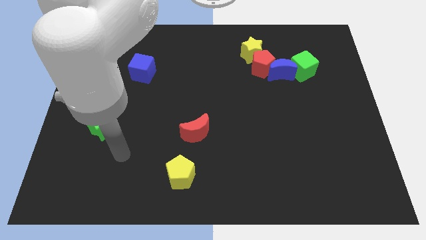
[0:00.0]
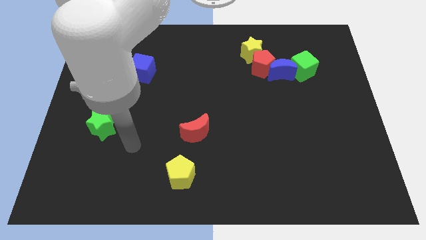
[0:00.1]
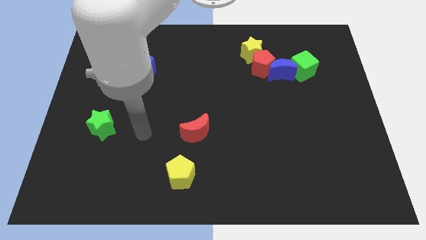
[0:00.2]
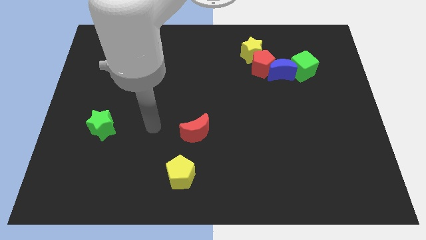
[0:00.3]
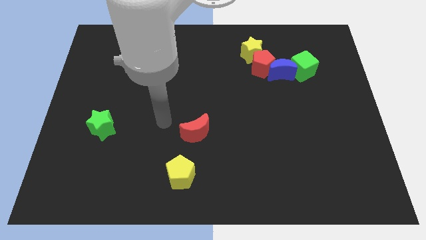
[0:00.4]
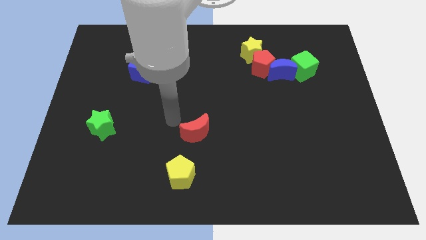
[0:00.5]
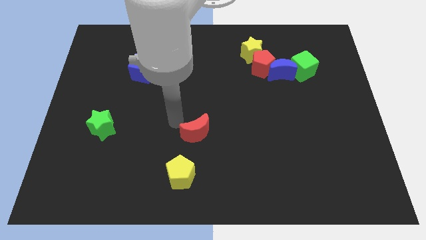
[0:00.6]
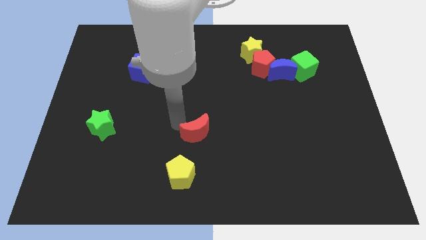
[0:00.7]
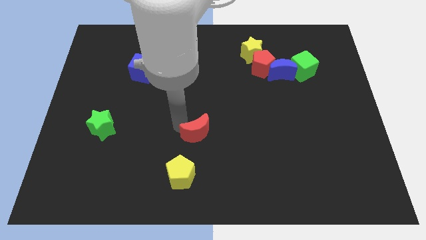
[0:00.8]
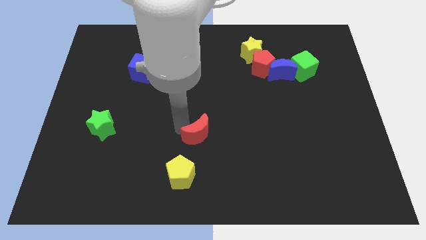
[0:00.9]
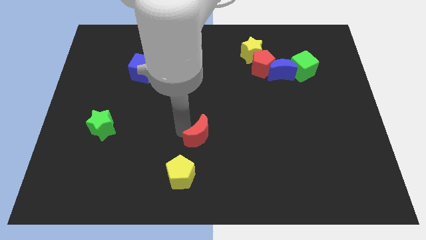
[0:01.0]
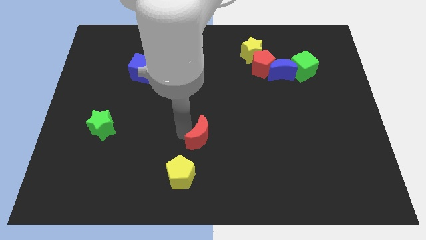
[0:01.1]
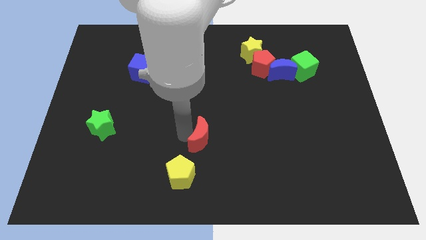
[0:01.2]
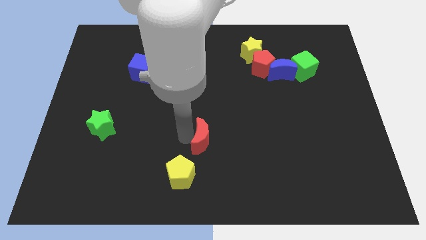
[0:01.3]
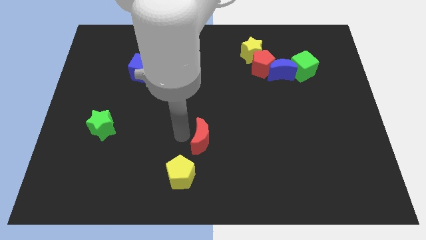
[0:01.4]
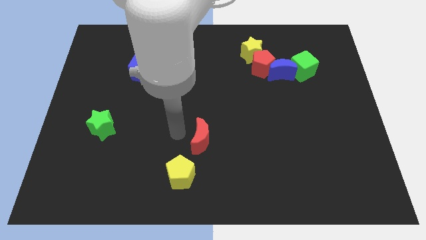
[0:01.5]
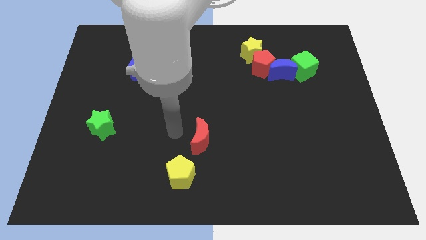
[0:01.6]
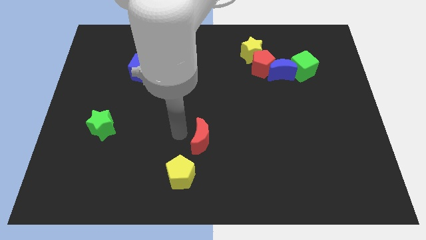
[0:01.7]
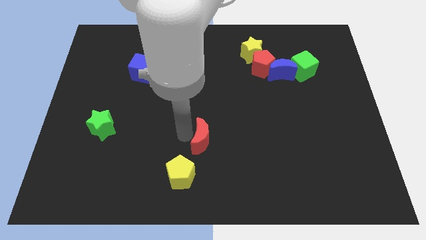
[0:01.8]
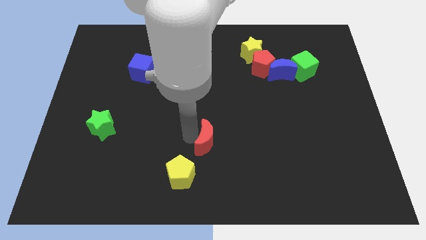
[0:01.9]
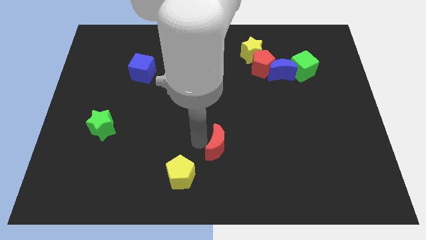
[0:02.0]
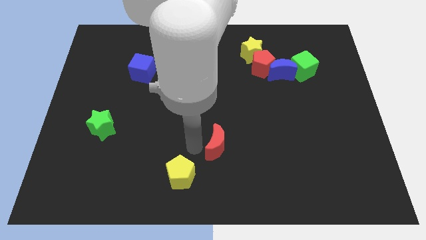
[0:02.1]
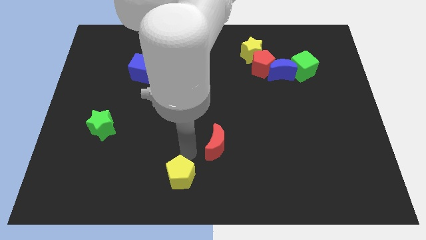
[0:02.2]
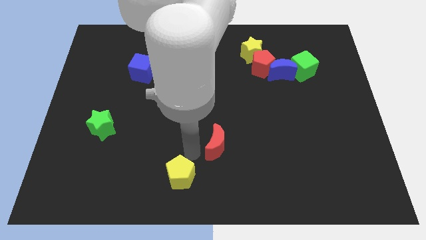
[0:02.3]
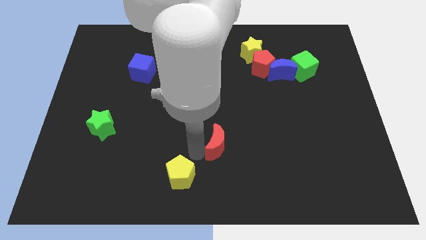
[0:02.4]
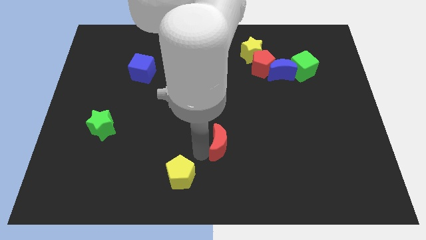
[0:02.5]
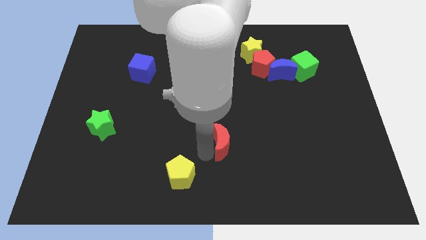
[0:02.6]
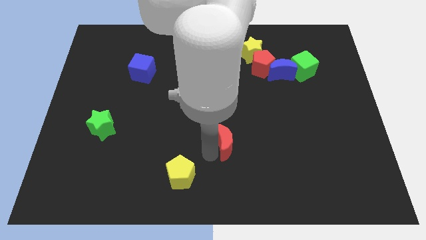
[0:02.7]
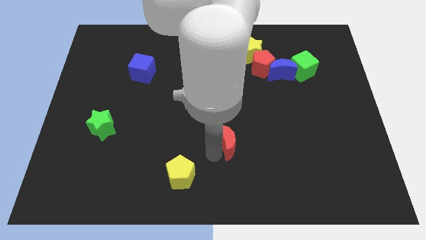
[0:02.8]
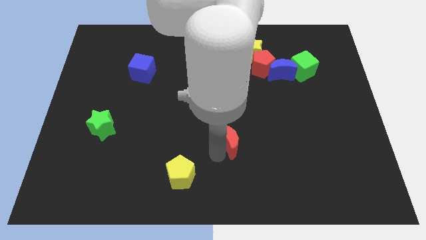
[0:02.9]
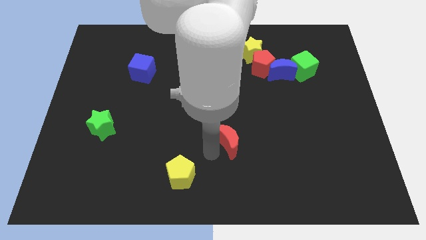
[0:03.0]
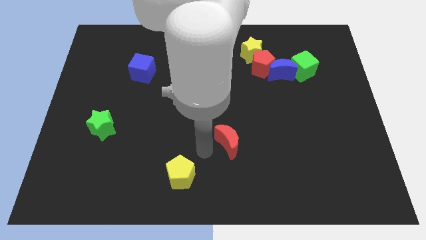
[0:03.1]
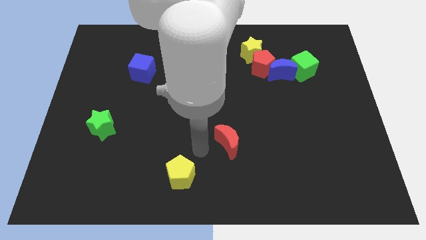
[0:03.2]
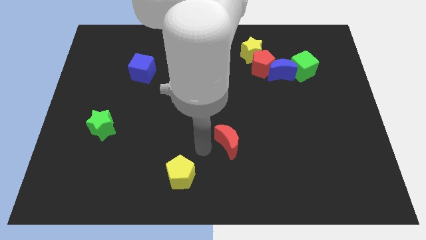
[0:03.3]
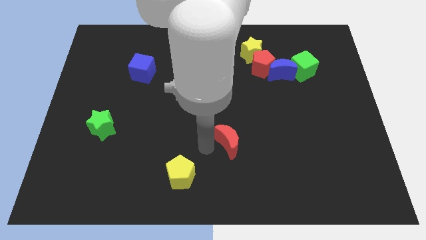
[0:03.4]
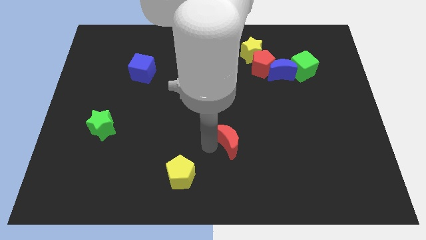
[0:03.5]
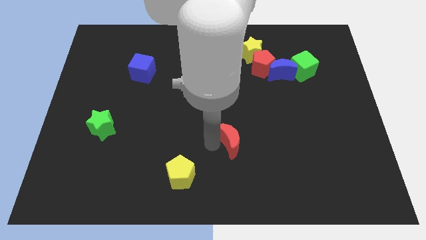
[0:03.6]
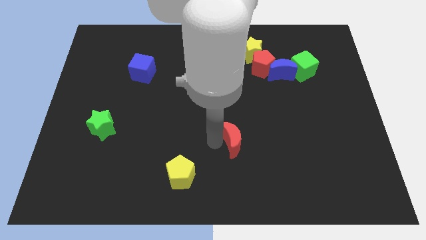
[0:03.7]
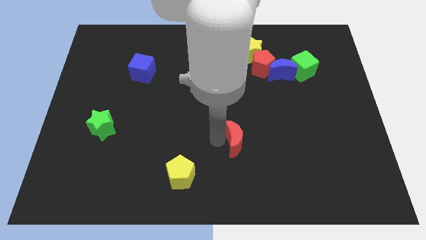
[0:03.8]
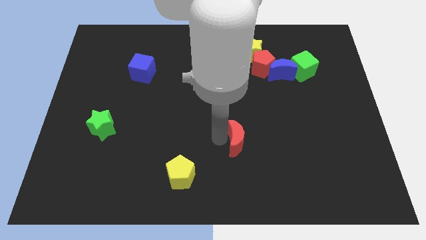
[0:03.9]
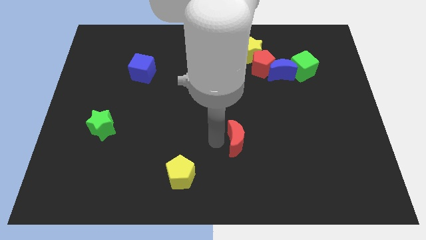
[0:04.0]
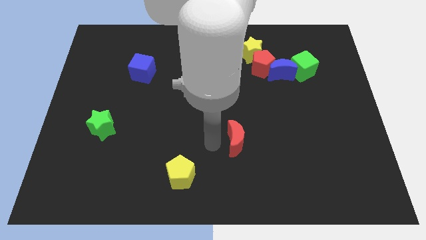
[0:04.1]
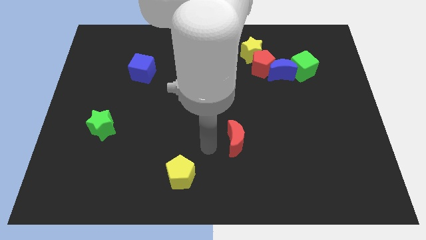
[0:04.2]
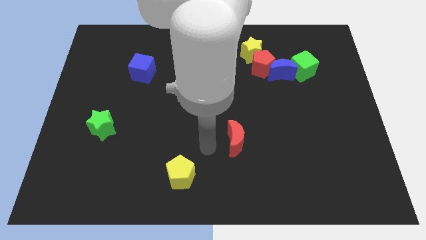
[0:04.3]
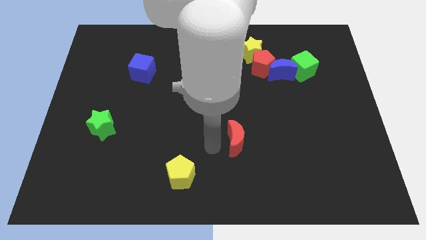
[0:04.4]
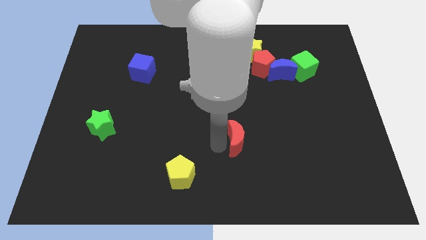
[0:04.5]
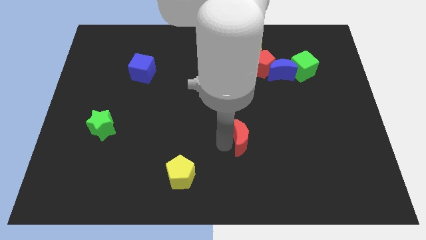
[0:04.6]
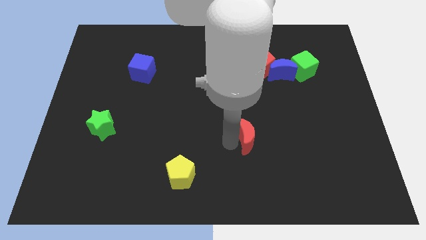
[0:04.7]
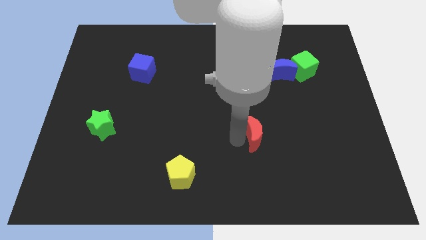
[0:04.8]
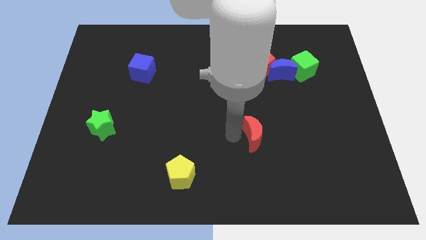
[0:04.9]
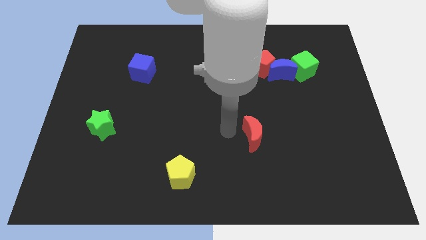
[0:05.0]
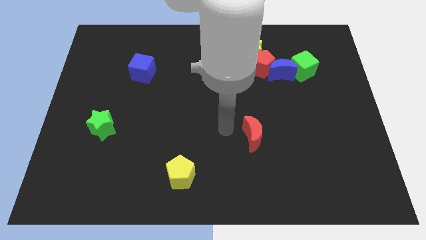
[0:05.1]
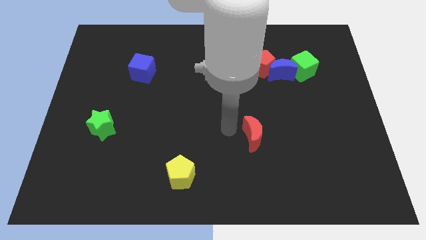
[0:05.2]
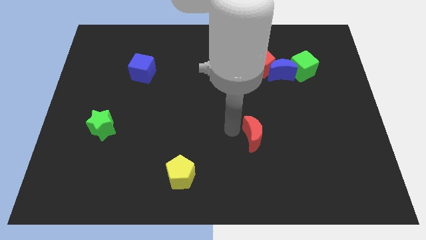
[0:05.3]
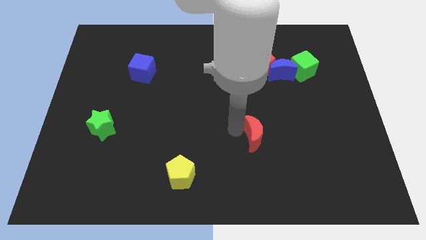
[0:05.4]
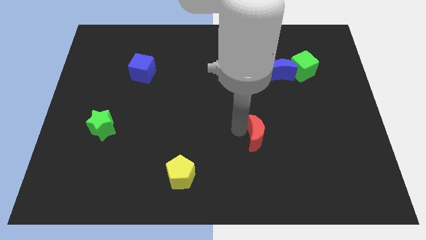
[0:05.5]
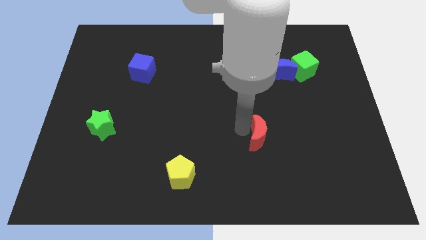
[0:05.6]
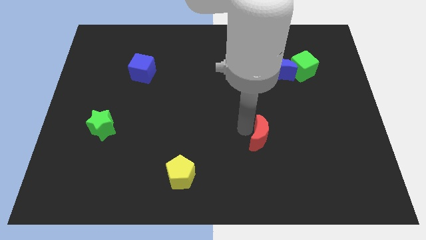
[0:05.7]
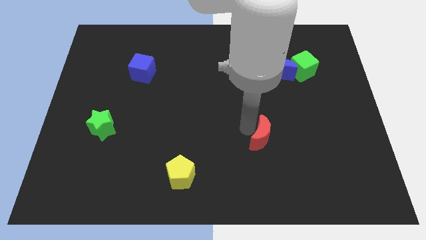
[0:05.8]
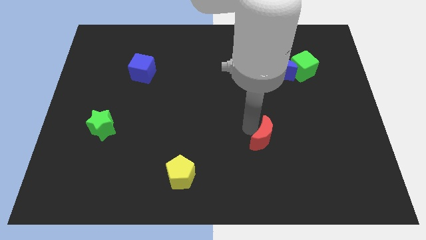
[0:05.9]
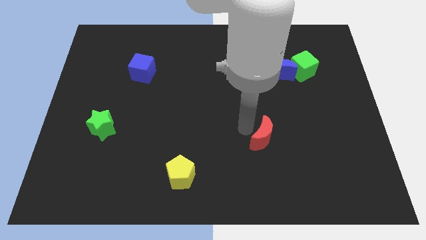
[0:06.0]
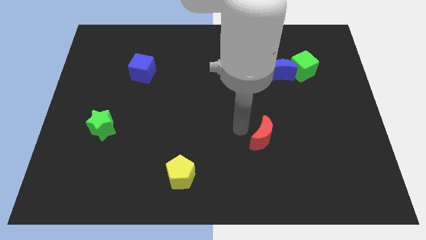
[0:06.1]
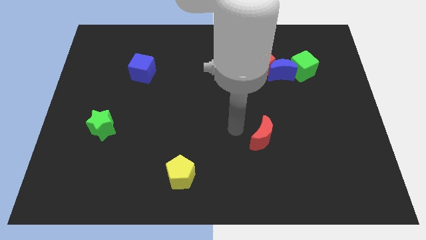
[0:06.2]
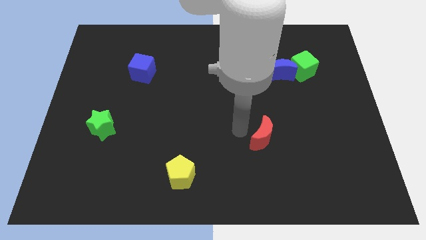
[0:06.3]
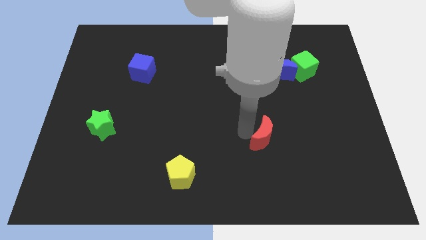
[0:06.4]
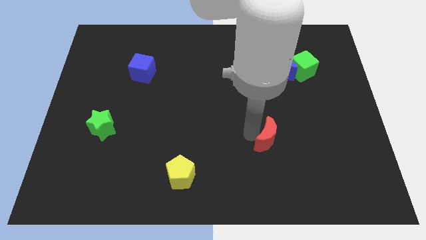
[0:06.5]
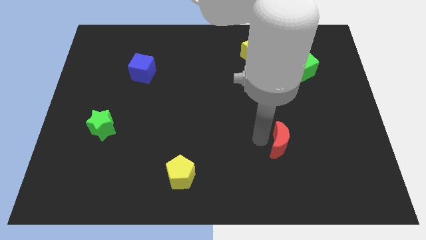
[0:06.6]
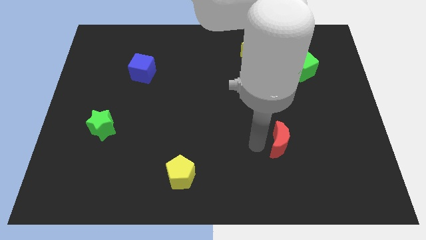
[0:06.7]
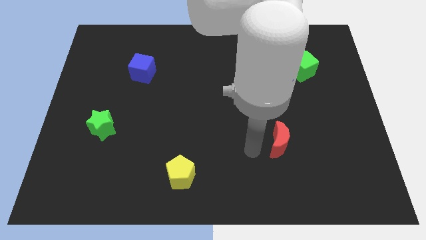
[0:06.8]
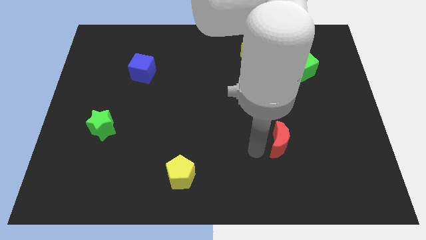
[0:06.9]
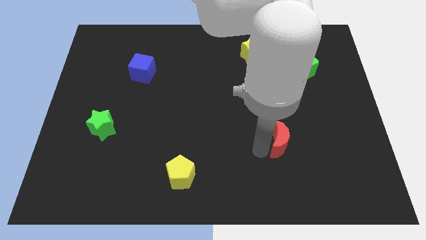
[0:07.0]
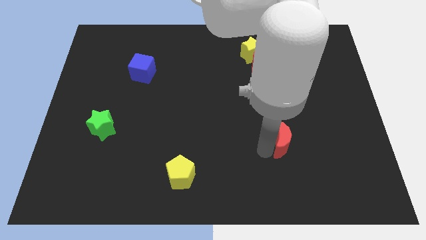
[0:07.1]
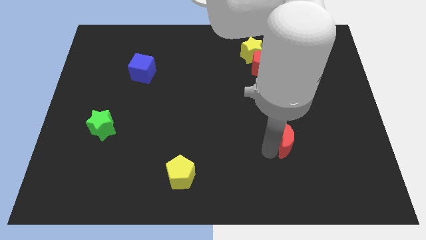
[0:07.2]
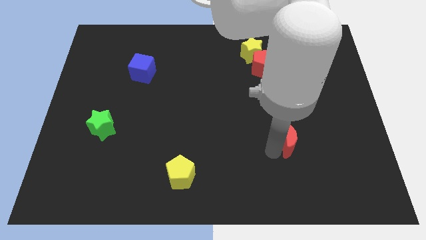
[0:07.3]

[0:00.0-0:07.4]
slide the red moon to the right

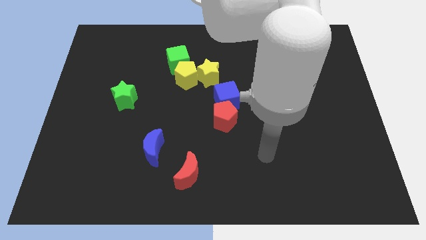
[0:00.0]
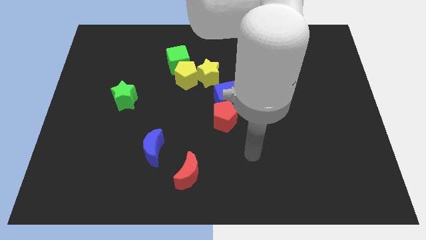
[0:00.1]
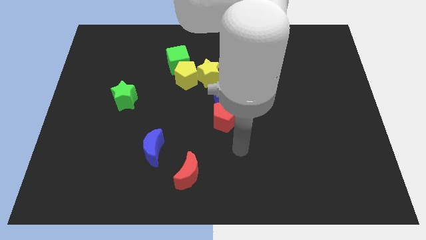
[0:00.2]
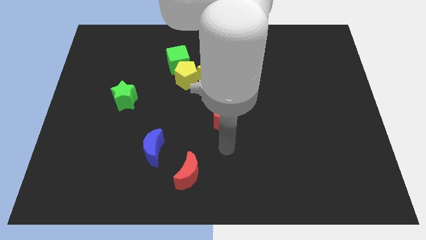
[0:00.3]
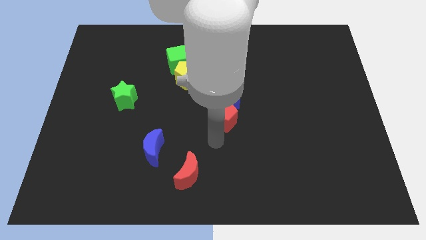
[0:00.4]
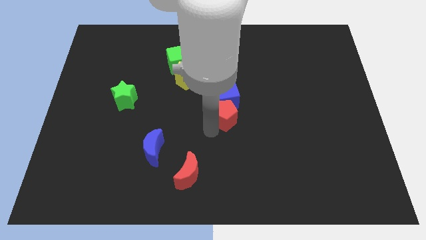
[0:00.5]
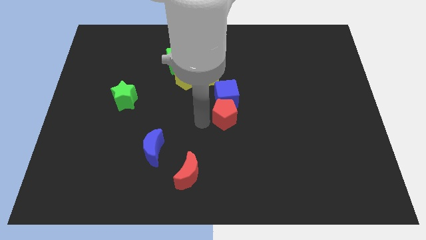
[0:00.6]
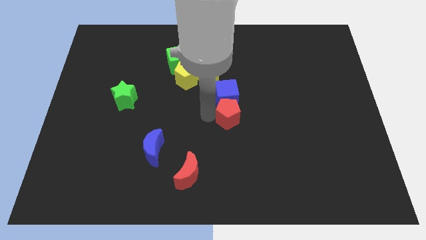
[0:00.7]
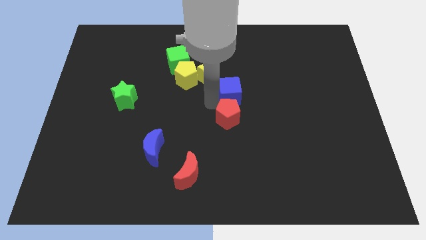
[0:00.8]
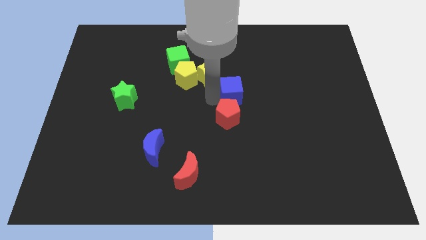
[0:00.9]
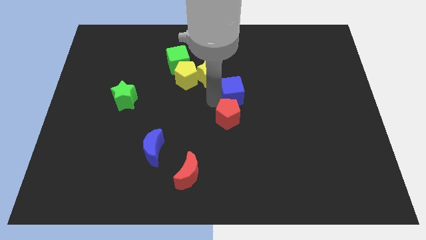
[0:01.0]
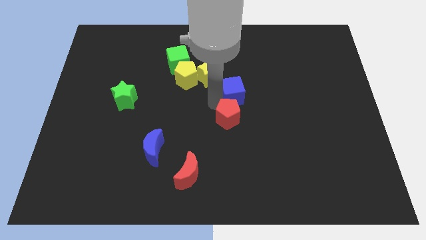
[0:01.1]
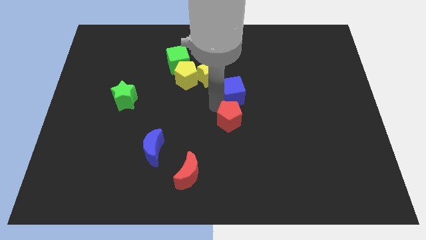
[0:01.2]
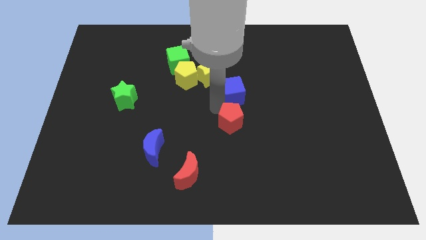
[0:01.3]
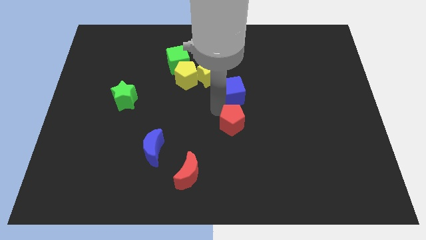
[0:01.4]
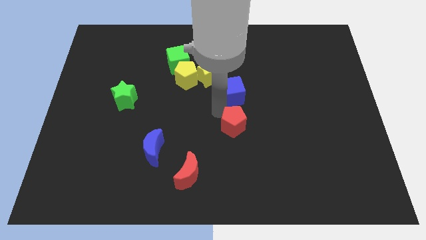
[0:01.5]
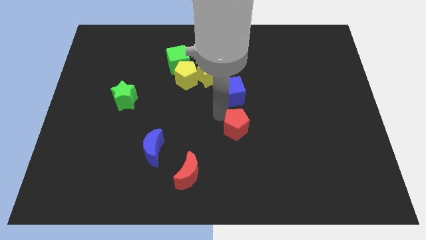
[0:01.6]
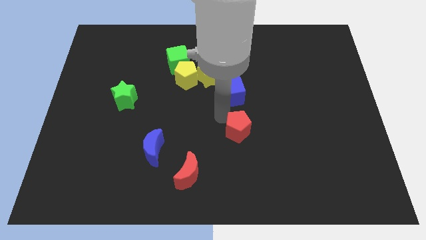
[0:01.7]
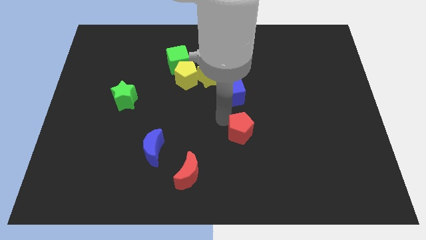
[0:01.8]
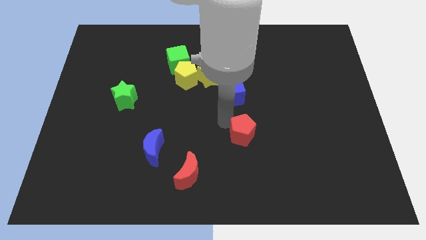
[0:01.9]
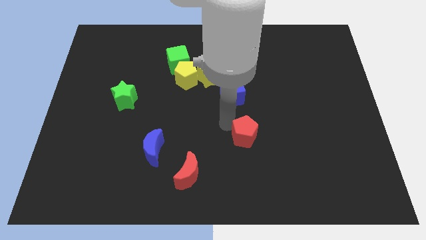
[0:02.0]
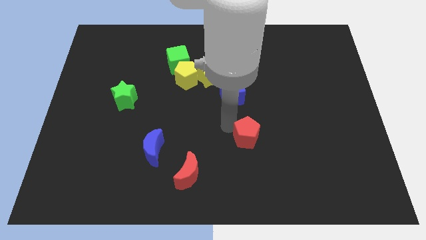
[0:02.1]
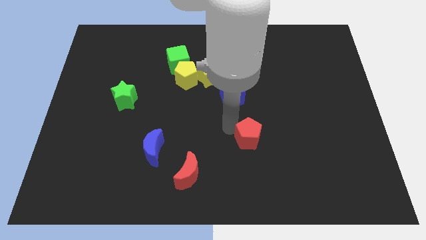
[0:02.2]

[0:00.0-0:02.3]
slide the red pentagon a little bit down and right
